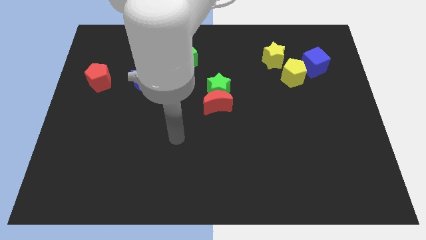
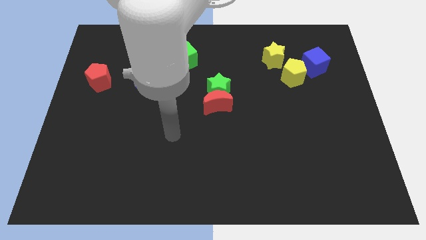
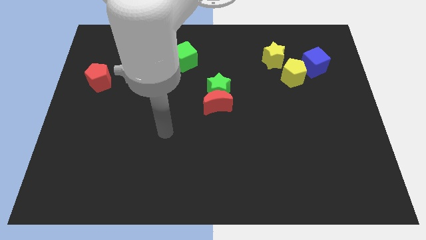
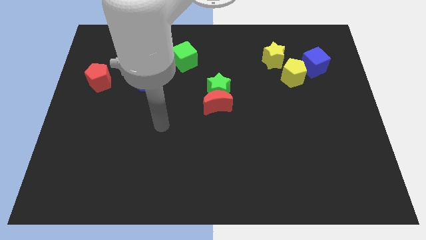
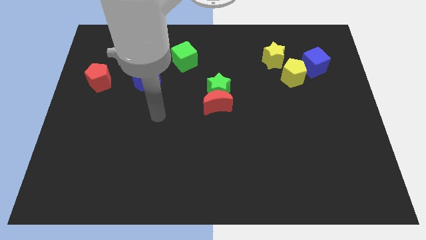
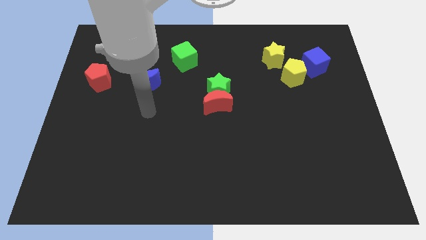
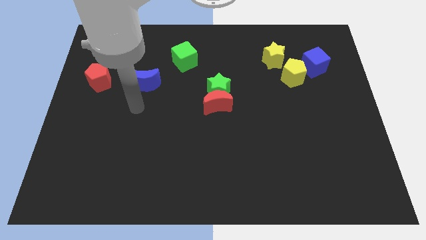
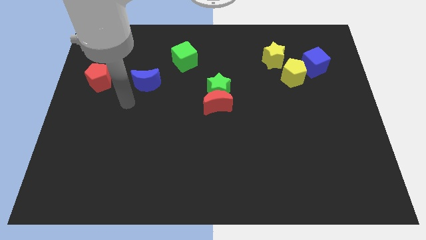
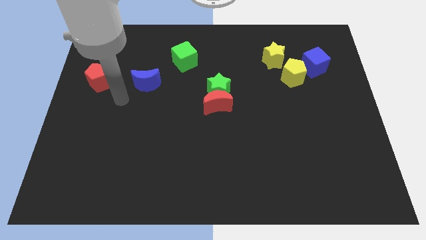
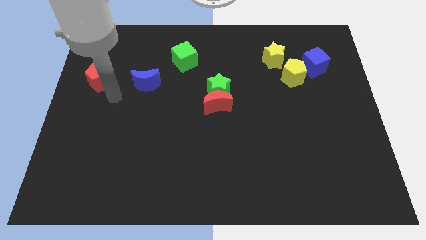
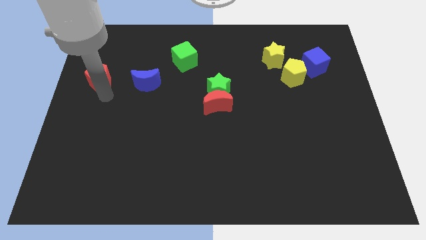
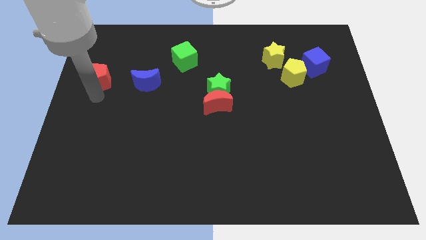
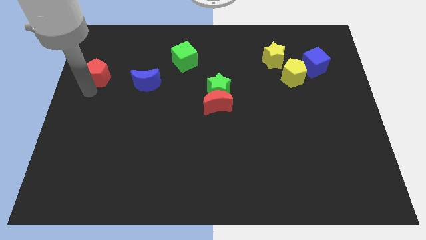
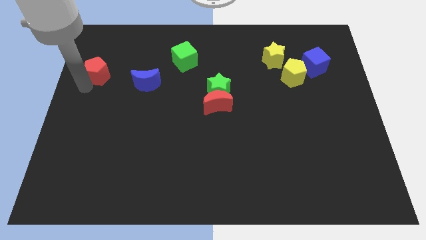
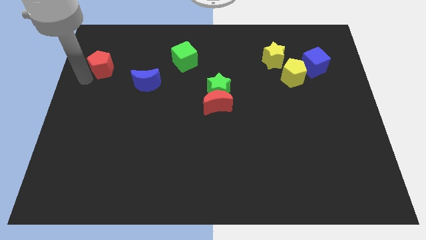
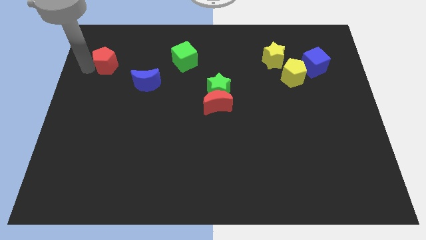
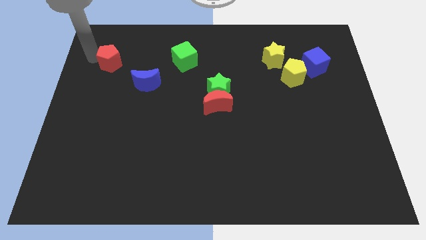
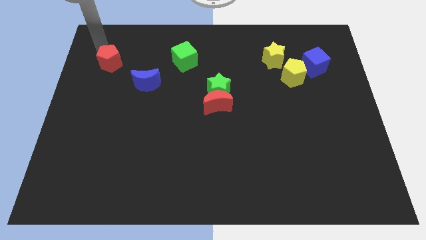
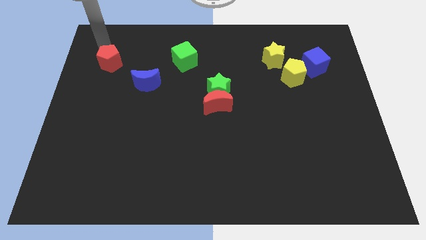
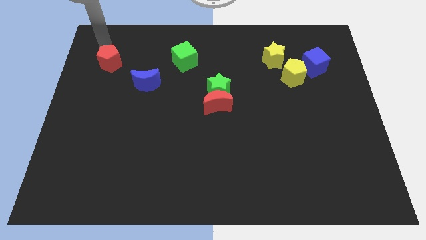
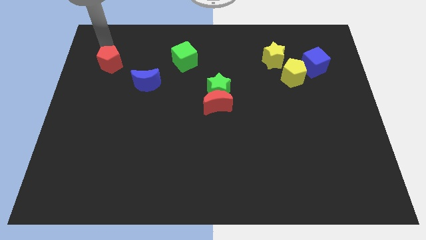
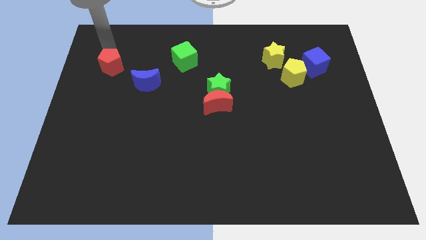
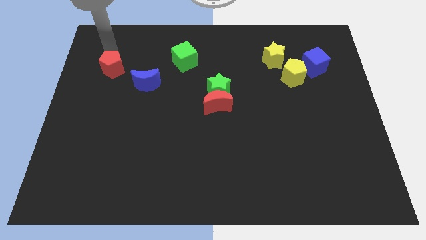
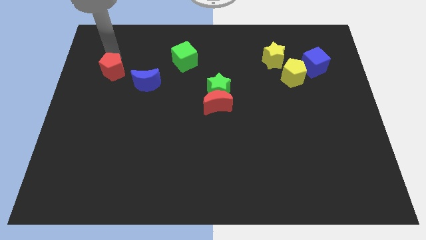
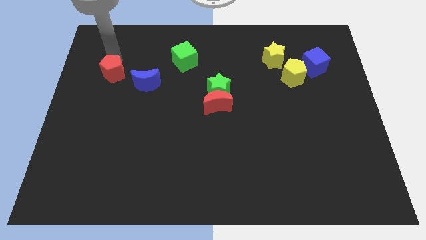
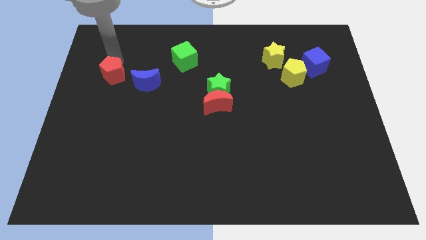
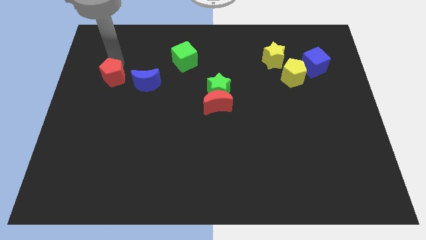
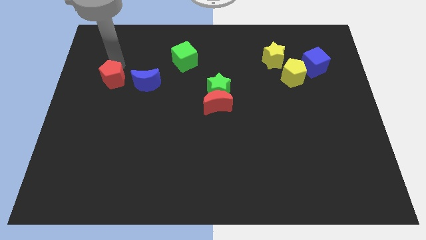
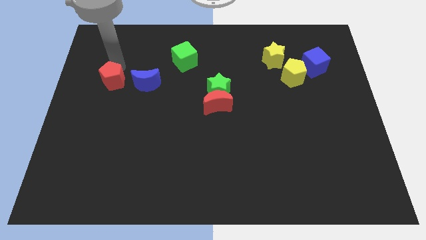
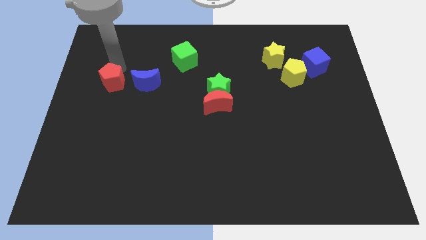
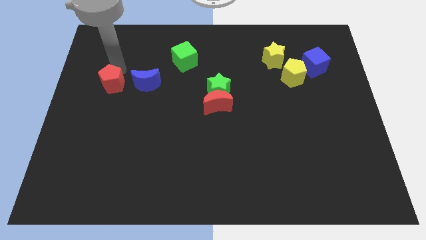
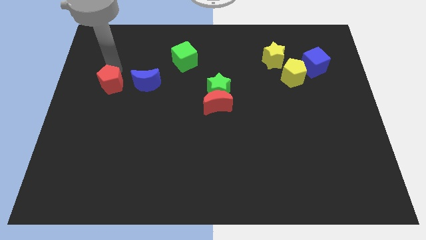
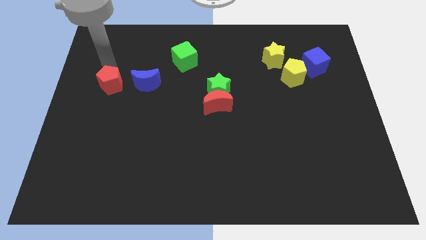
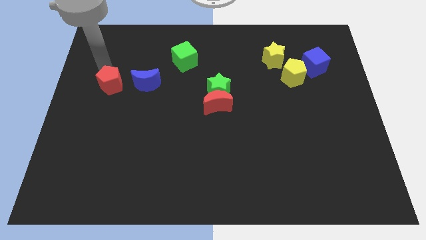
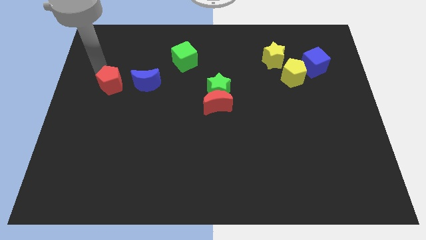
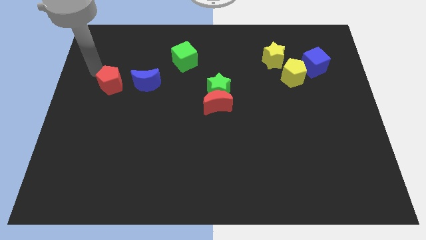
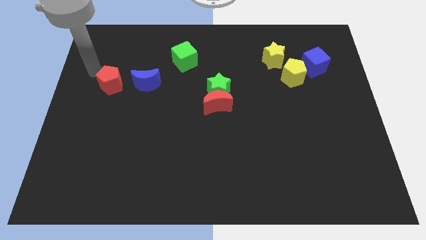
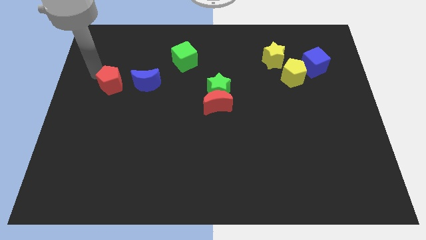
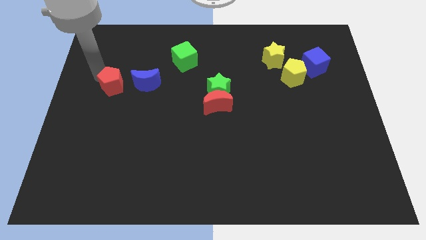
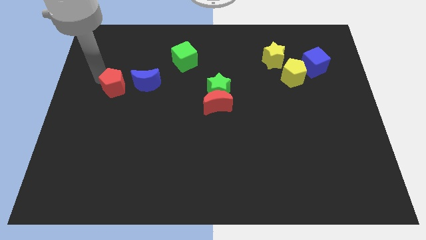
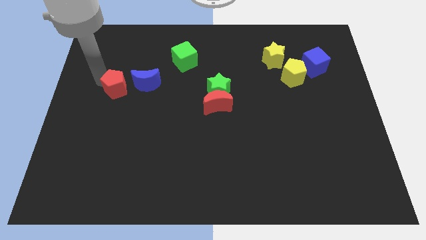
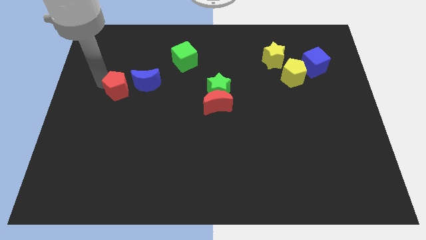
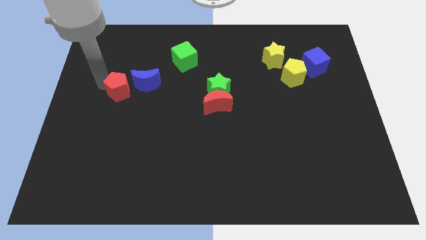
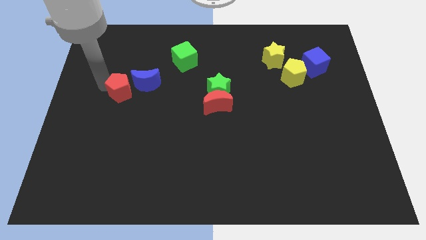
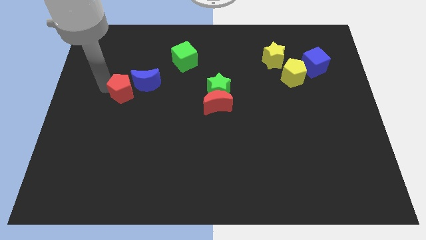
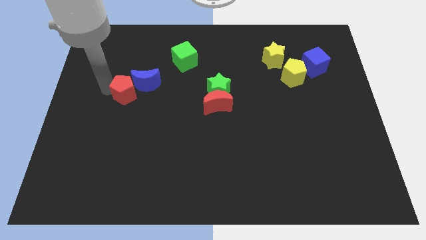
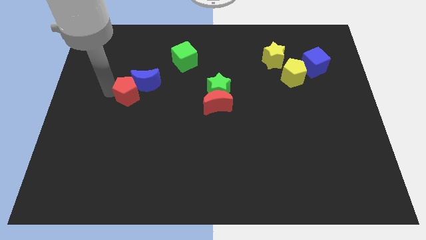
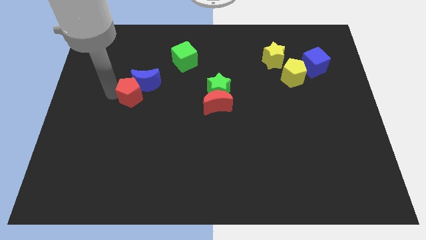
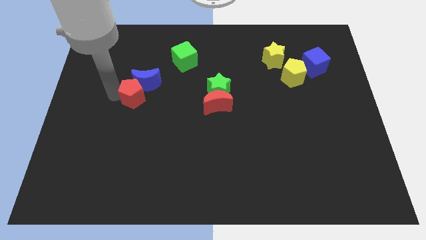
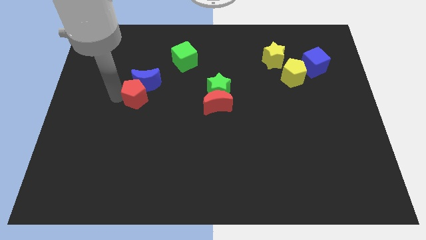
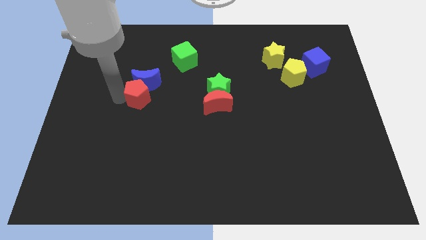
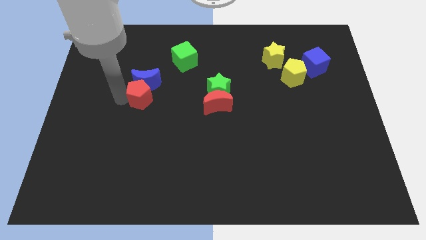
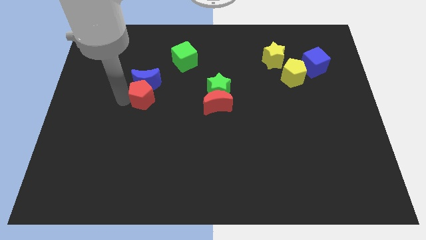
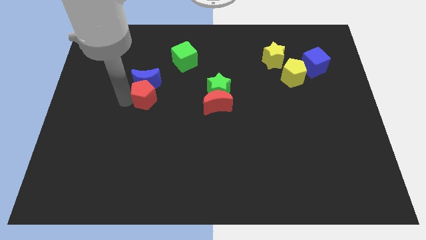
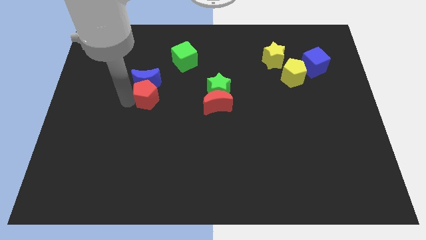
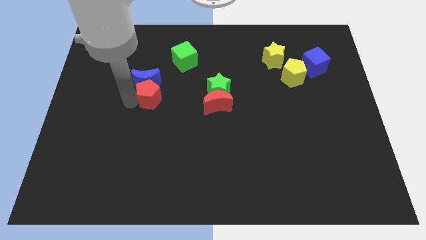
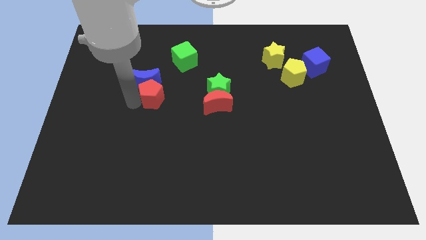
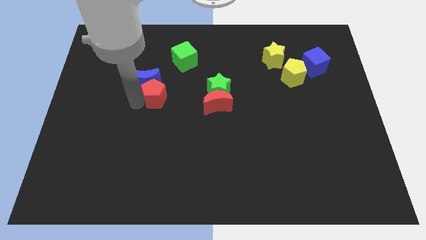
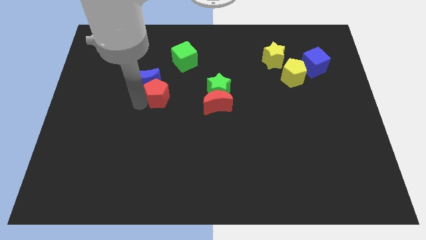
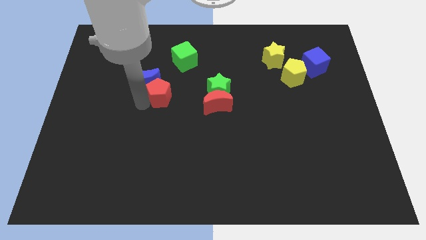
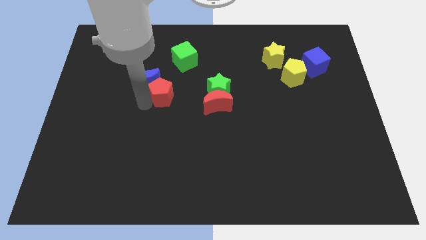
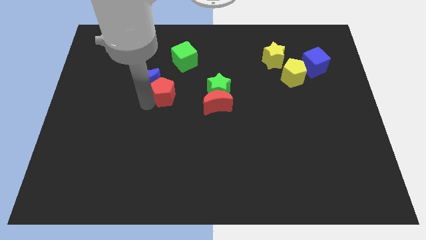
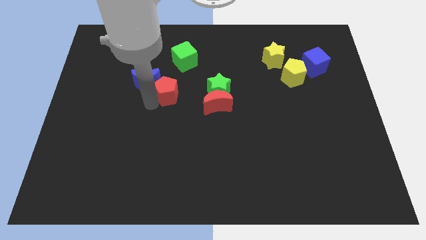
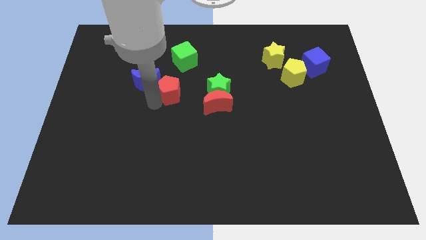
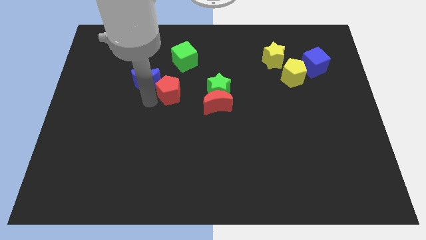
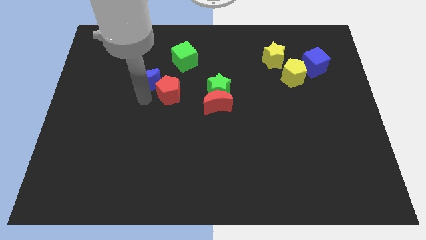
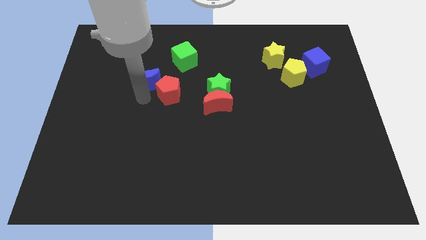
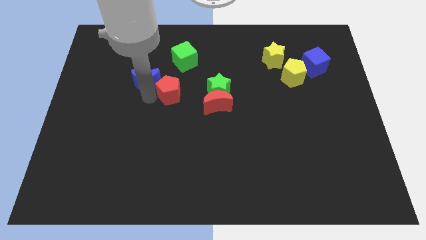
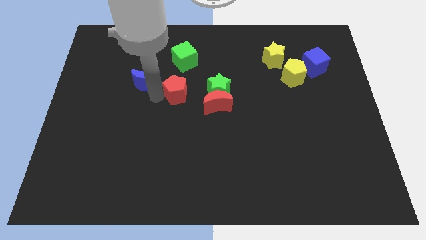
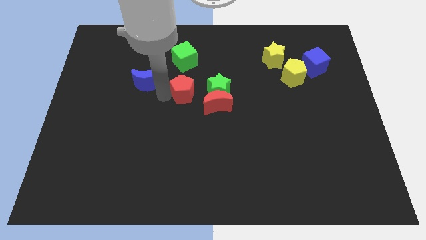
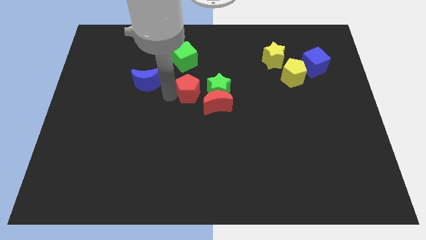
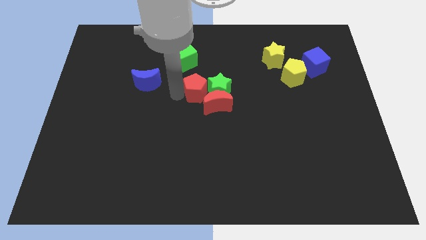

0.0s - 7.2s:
move the red pentagon next to the green star
